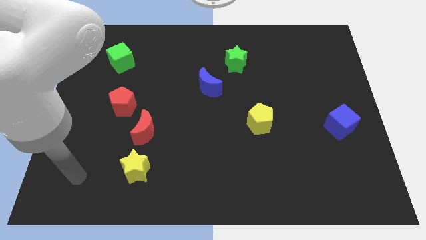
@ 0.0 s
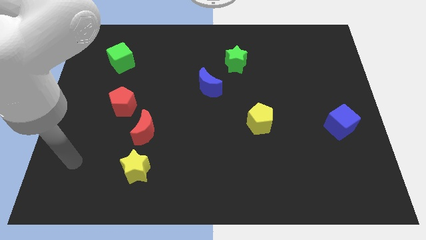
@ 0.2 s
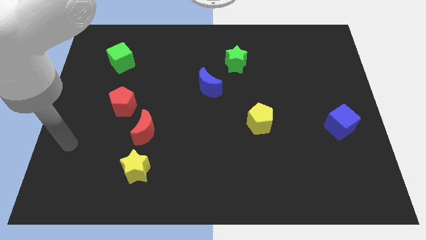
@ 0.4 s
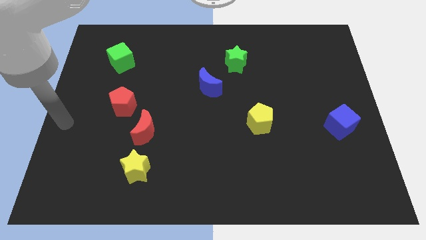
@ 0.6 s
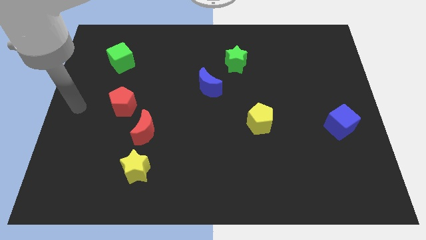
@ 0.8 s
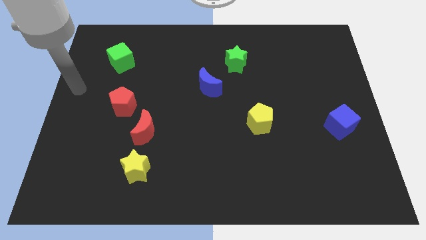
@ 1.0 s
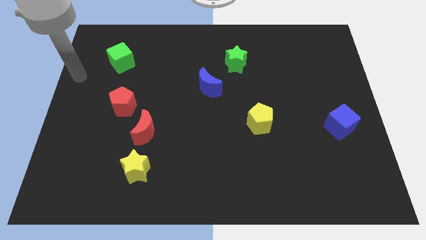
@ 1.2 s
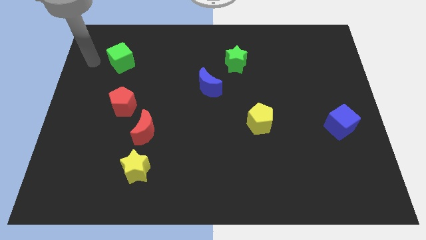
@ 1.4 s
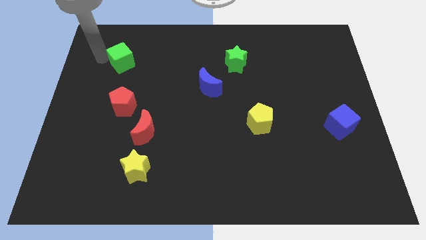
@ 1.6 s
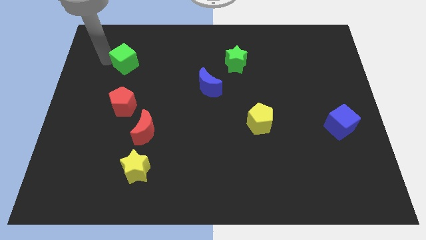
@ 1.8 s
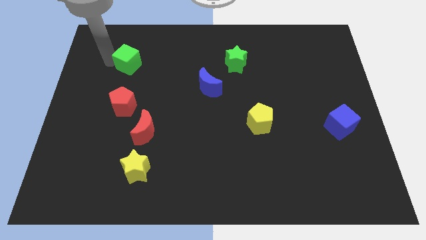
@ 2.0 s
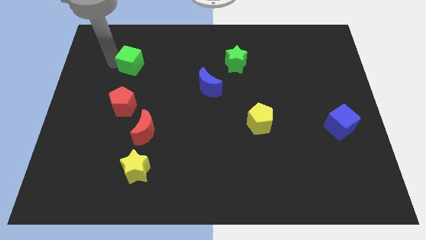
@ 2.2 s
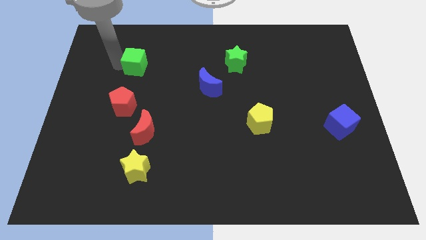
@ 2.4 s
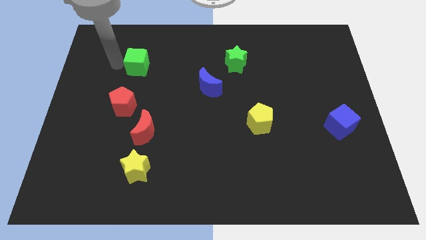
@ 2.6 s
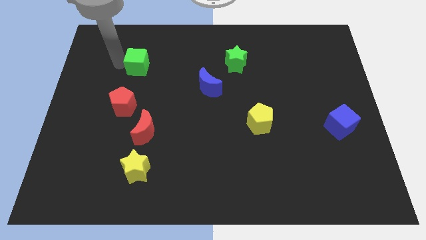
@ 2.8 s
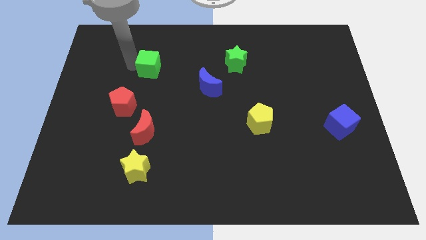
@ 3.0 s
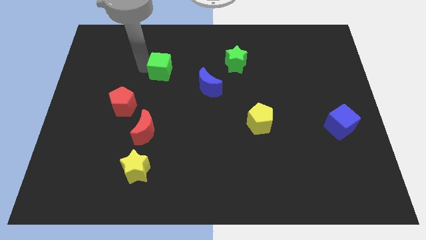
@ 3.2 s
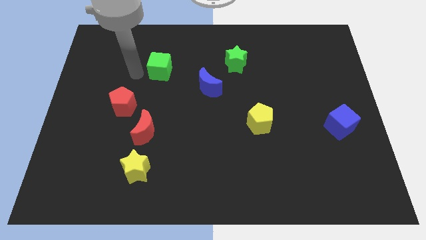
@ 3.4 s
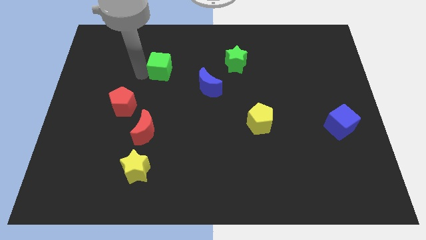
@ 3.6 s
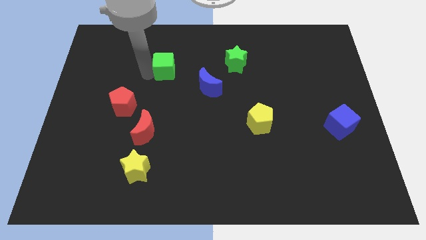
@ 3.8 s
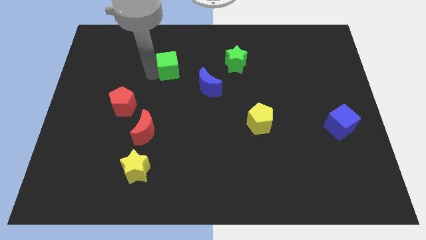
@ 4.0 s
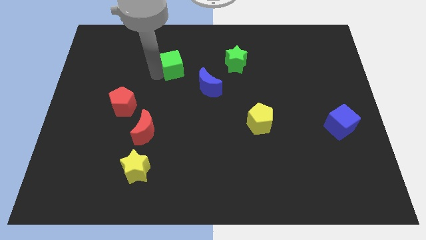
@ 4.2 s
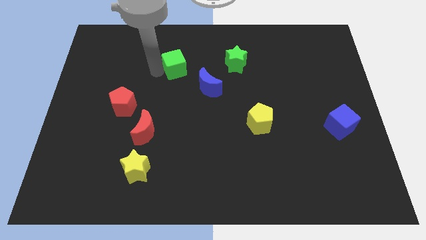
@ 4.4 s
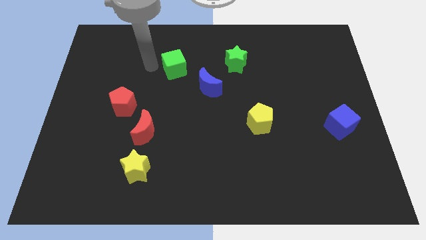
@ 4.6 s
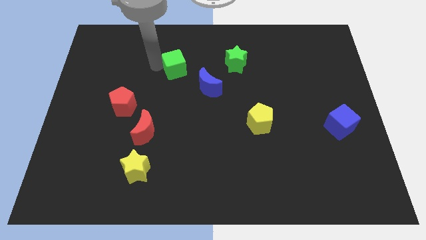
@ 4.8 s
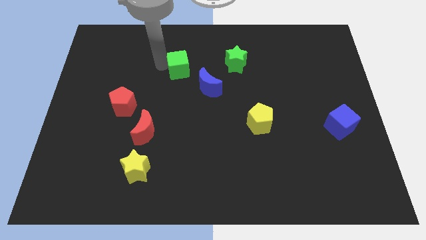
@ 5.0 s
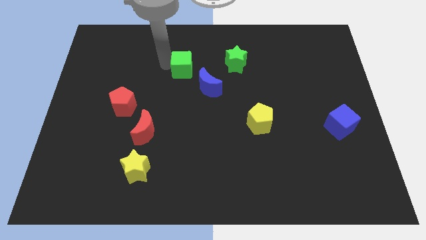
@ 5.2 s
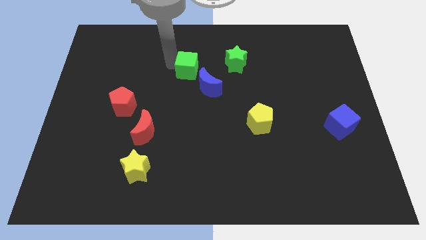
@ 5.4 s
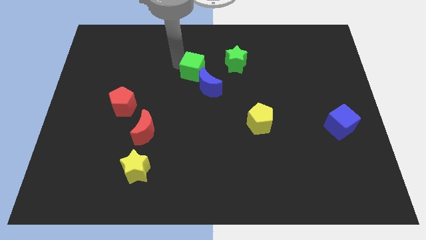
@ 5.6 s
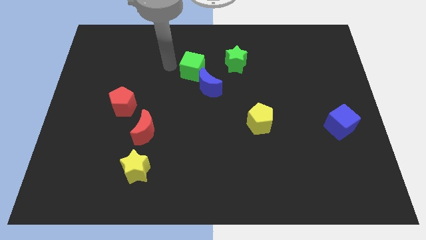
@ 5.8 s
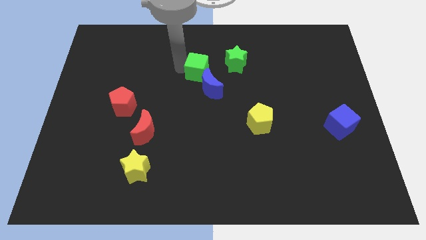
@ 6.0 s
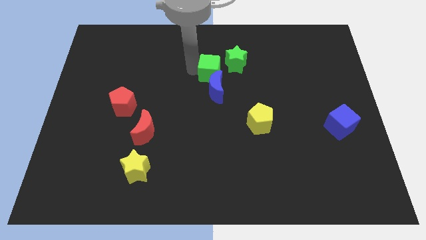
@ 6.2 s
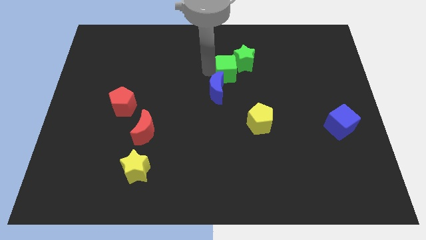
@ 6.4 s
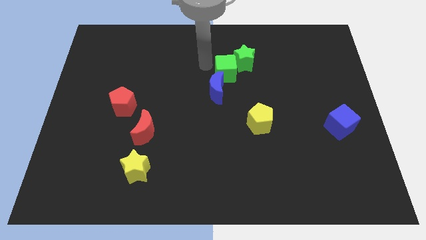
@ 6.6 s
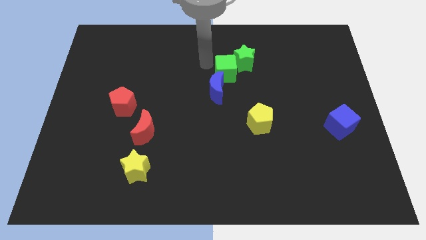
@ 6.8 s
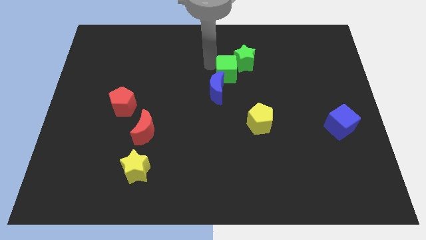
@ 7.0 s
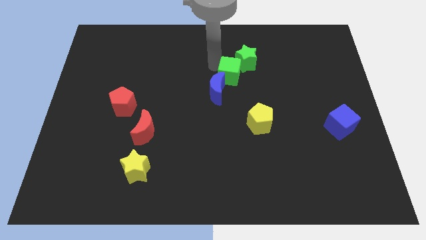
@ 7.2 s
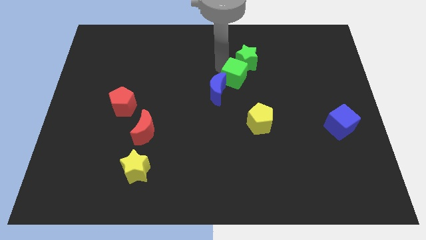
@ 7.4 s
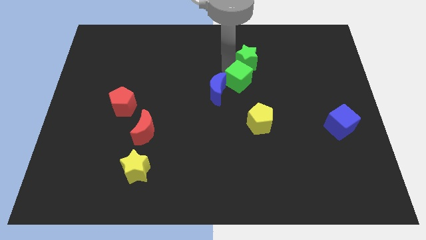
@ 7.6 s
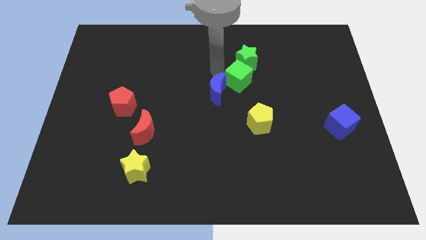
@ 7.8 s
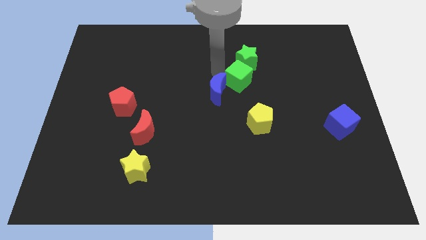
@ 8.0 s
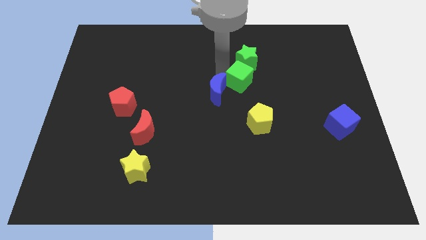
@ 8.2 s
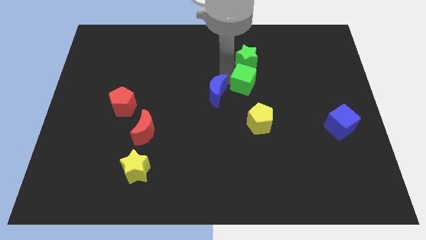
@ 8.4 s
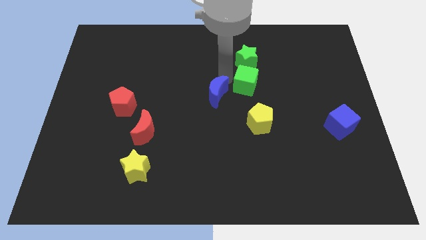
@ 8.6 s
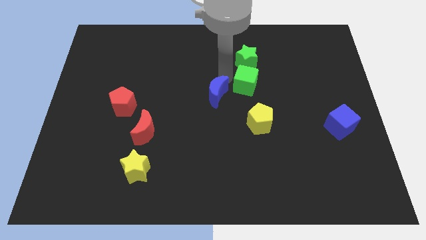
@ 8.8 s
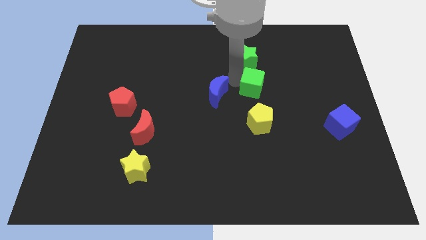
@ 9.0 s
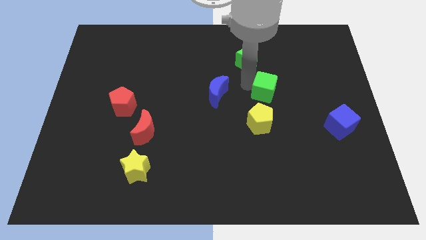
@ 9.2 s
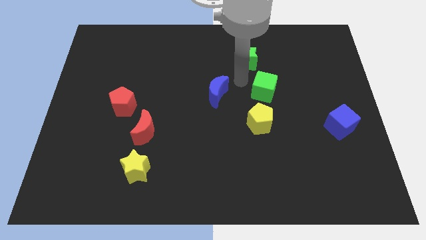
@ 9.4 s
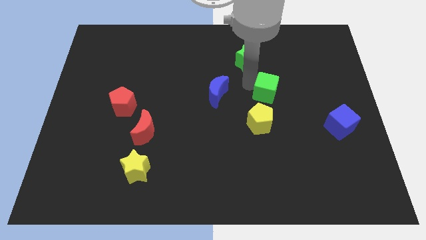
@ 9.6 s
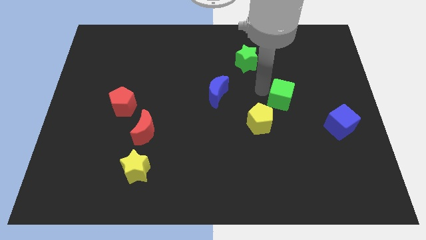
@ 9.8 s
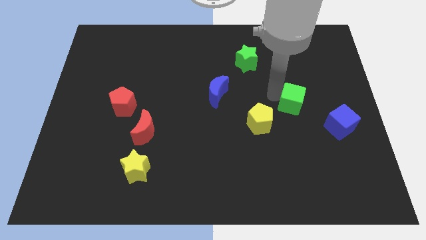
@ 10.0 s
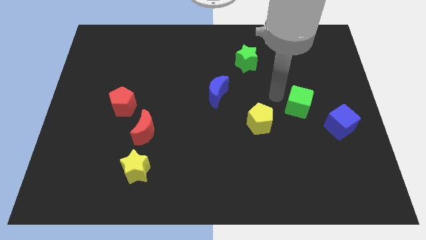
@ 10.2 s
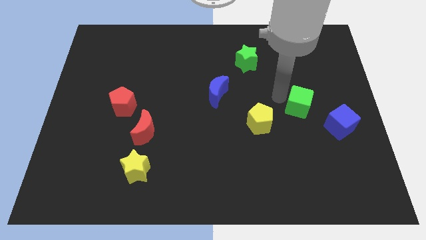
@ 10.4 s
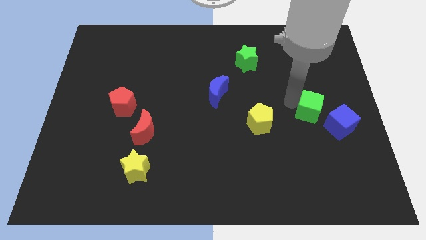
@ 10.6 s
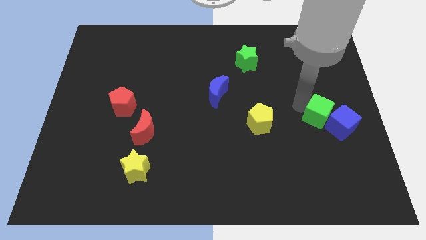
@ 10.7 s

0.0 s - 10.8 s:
move the green cube next to the blue cube

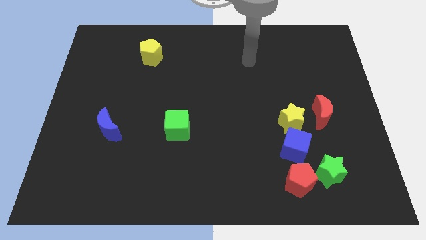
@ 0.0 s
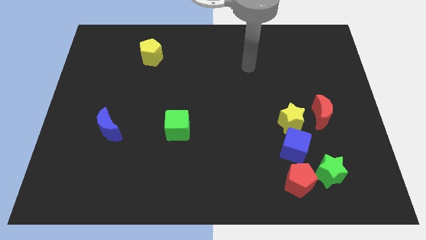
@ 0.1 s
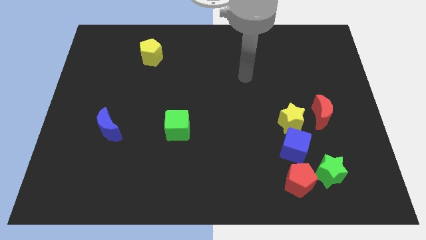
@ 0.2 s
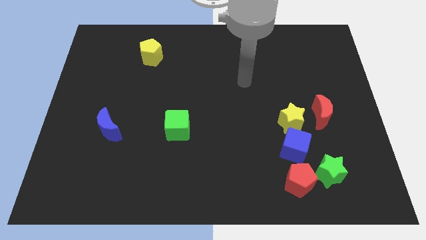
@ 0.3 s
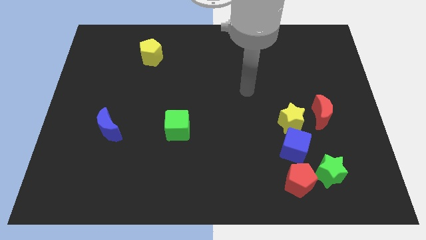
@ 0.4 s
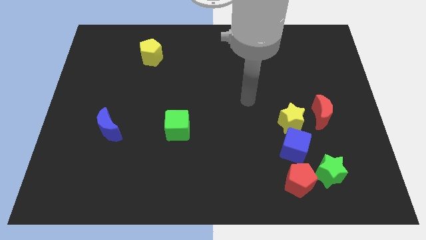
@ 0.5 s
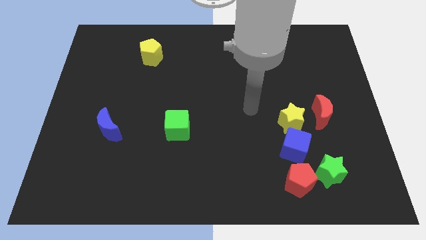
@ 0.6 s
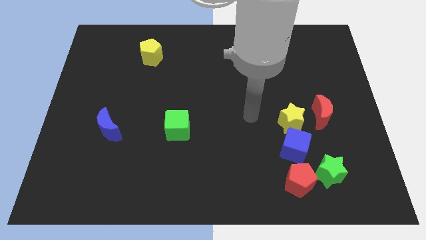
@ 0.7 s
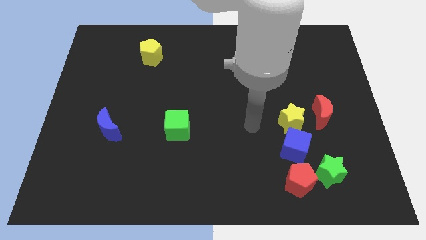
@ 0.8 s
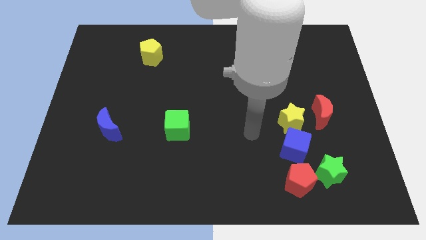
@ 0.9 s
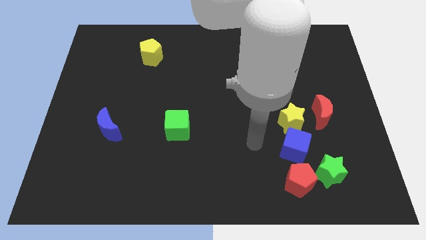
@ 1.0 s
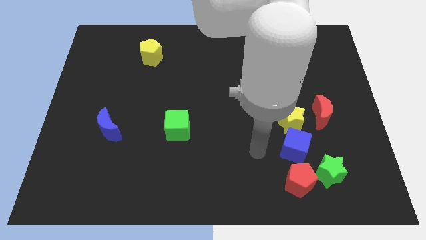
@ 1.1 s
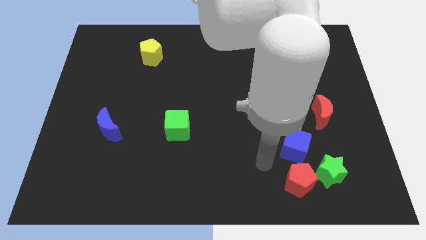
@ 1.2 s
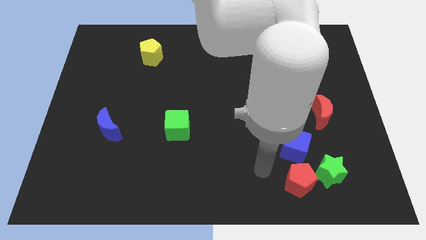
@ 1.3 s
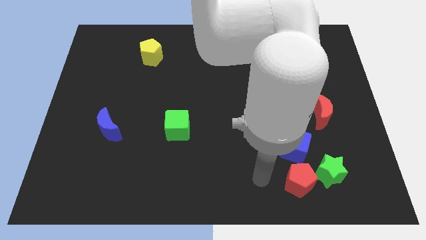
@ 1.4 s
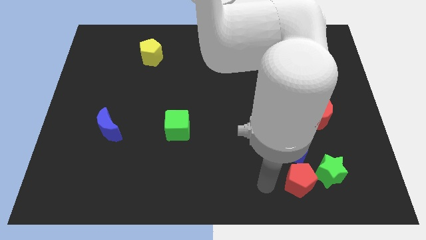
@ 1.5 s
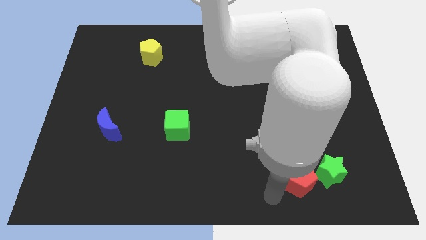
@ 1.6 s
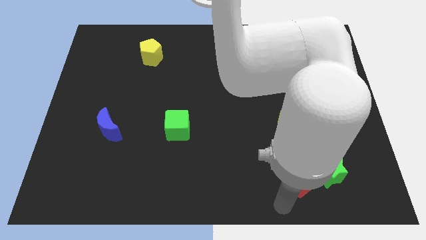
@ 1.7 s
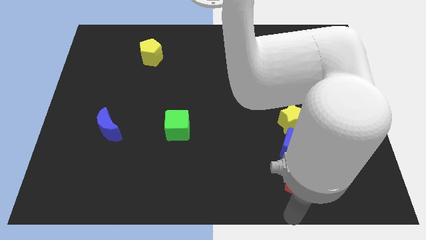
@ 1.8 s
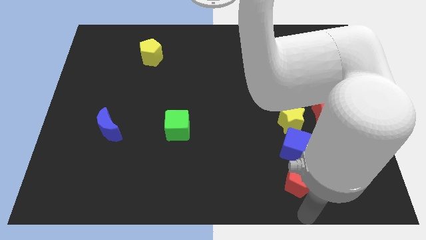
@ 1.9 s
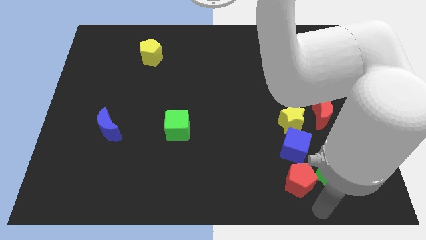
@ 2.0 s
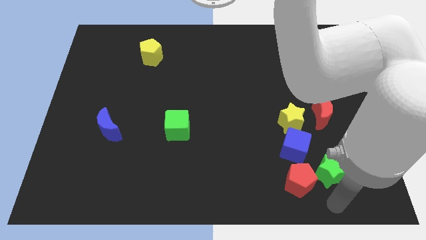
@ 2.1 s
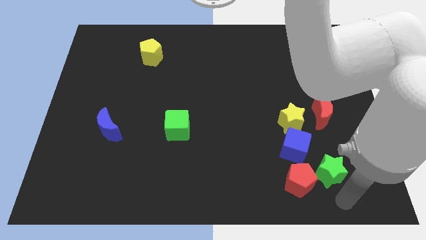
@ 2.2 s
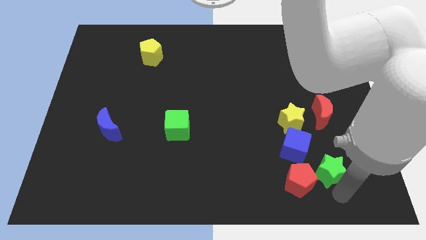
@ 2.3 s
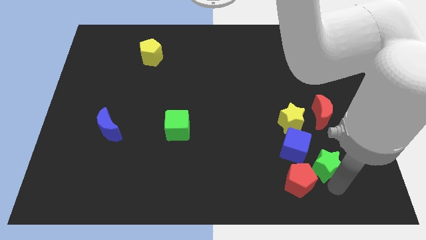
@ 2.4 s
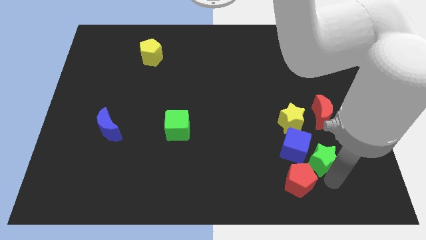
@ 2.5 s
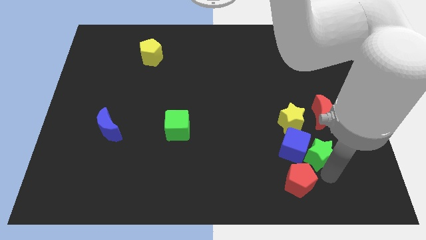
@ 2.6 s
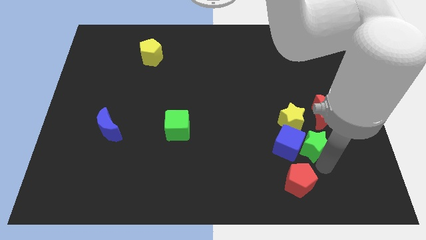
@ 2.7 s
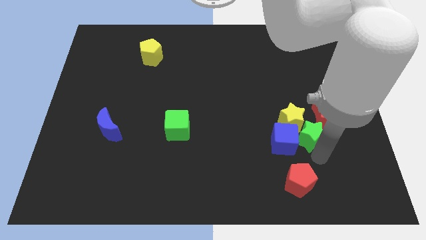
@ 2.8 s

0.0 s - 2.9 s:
slide the green star to the yellow star
